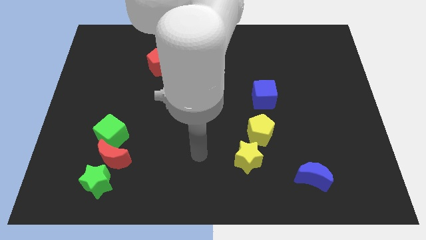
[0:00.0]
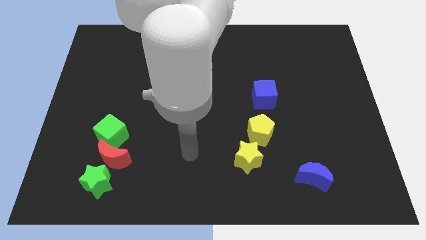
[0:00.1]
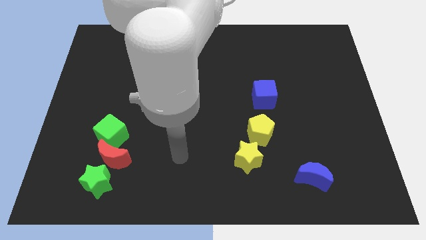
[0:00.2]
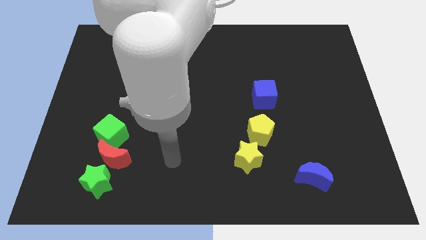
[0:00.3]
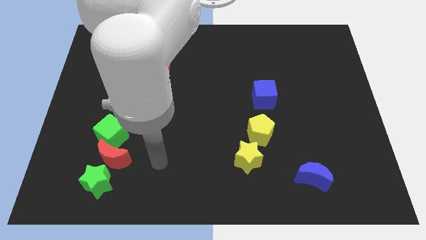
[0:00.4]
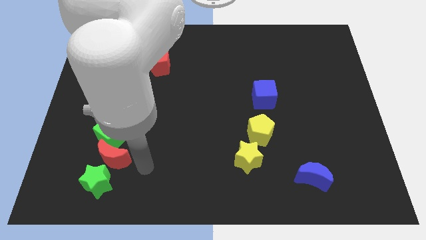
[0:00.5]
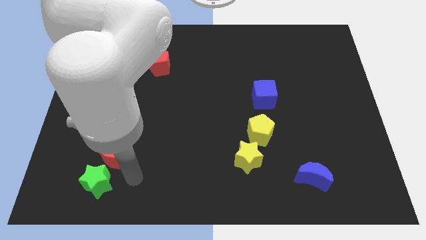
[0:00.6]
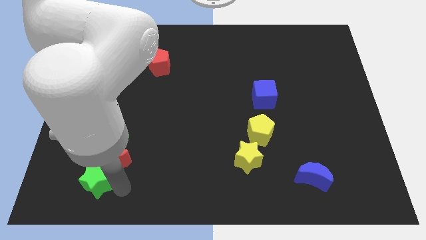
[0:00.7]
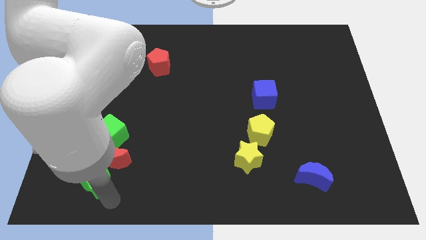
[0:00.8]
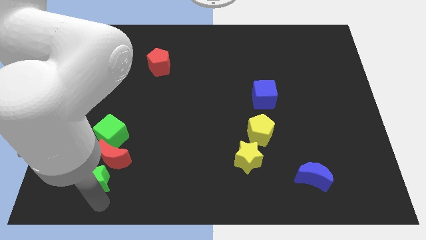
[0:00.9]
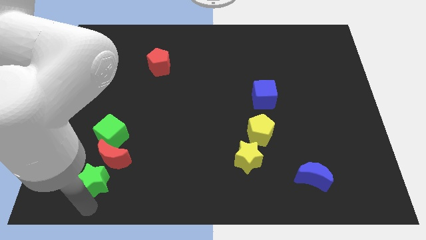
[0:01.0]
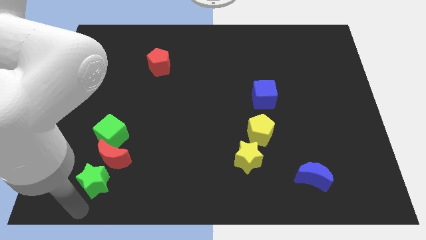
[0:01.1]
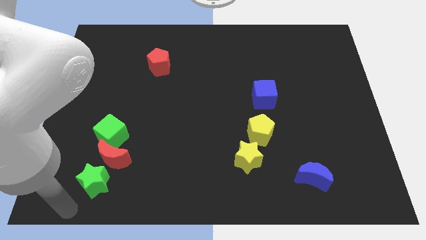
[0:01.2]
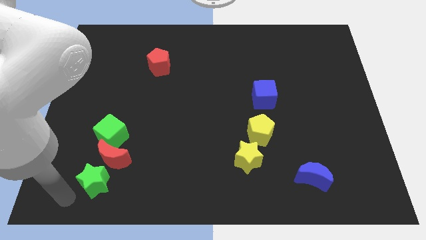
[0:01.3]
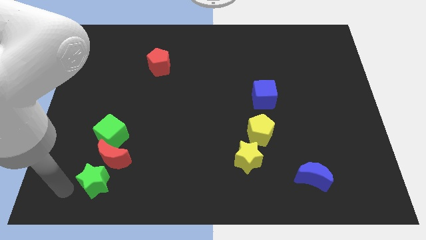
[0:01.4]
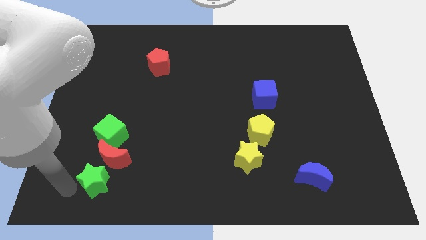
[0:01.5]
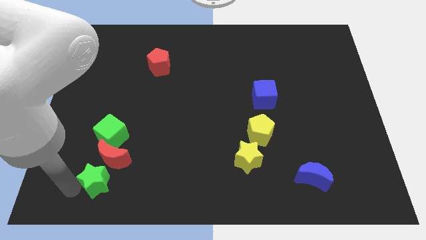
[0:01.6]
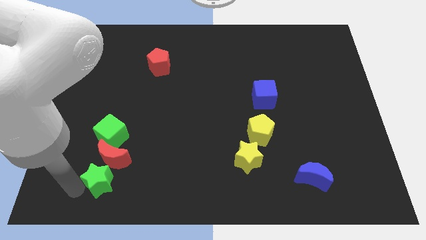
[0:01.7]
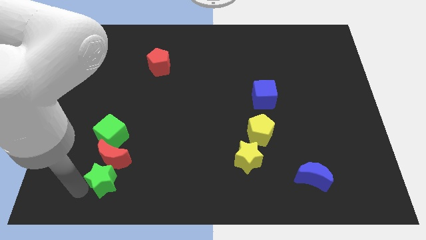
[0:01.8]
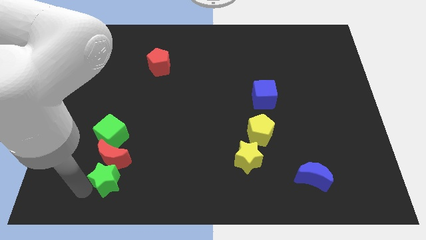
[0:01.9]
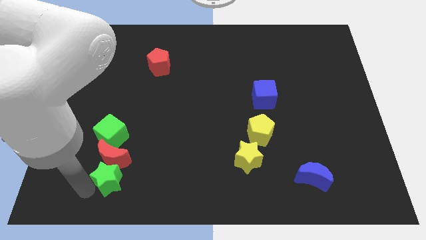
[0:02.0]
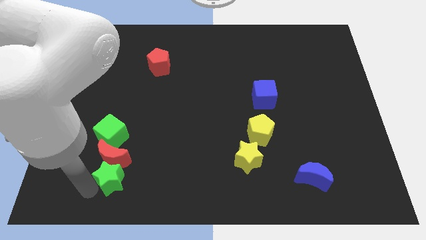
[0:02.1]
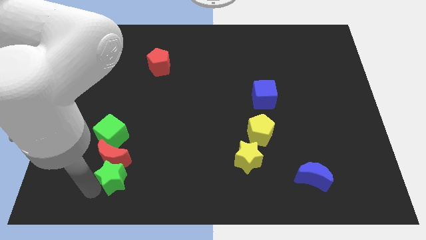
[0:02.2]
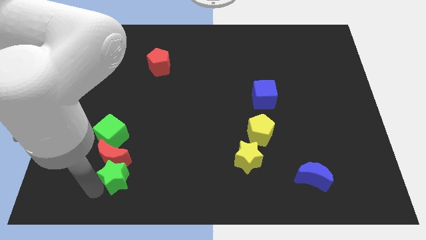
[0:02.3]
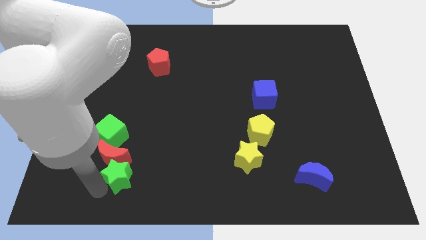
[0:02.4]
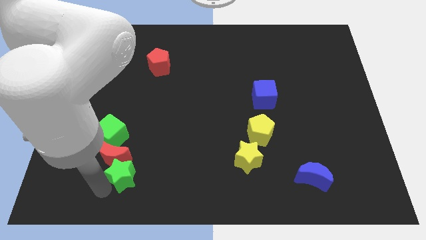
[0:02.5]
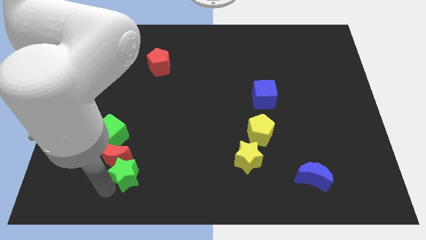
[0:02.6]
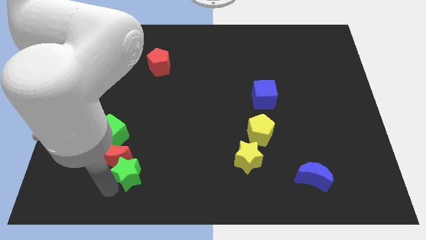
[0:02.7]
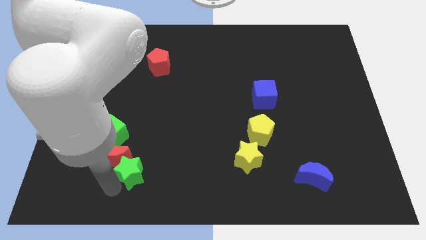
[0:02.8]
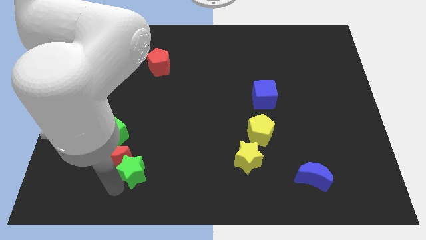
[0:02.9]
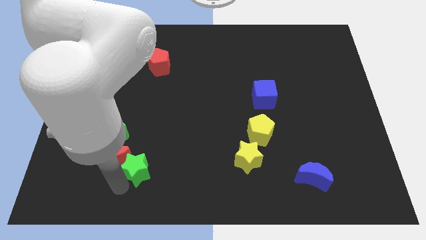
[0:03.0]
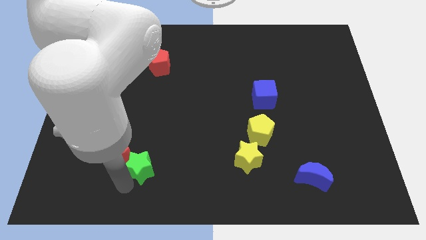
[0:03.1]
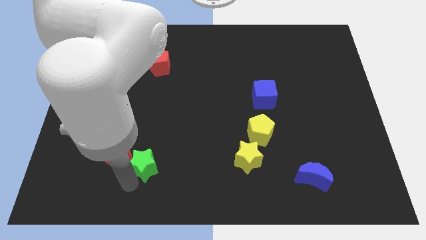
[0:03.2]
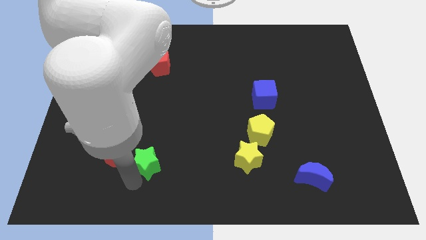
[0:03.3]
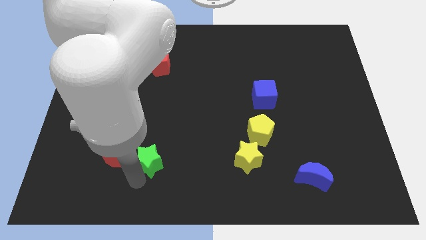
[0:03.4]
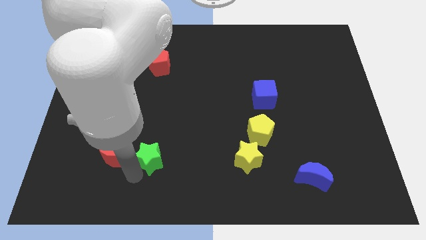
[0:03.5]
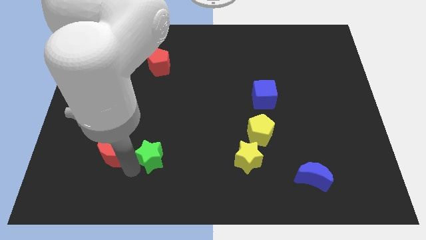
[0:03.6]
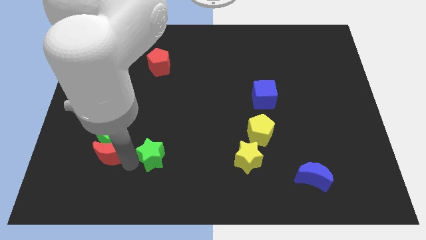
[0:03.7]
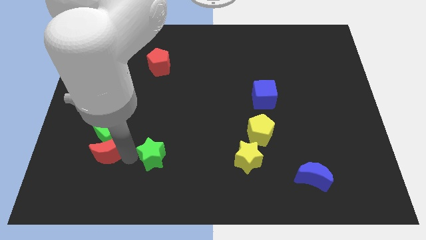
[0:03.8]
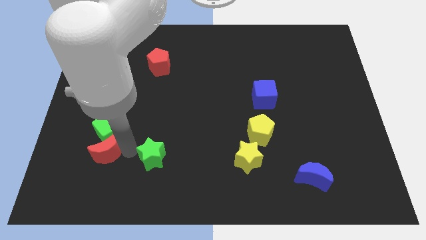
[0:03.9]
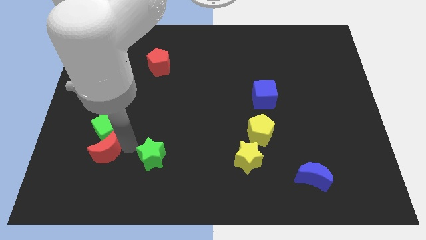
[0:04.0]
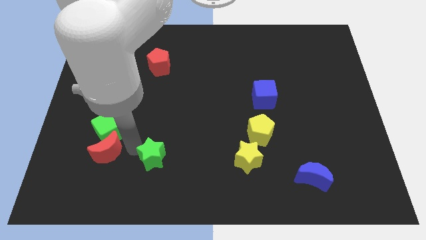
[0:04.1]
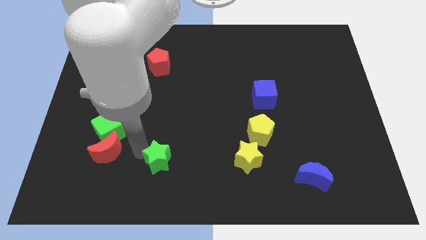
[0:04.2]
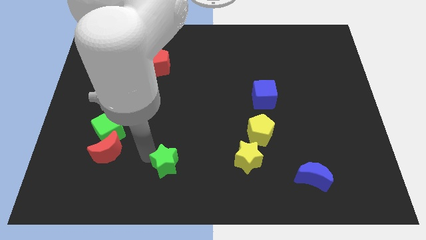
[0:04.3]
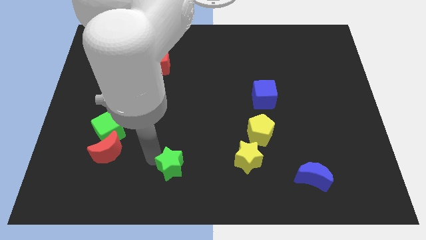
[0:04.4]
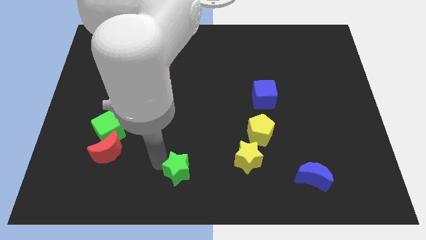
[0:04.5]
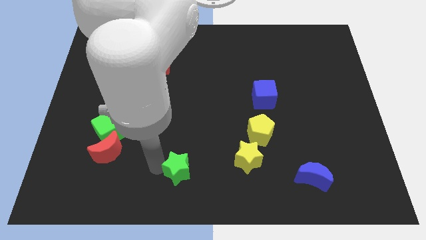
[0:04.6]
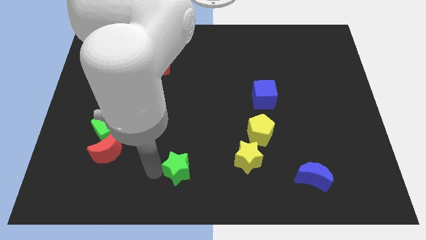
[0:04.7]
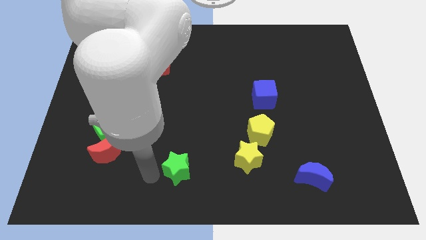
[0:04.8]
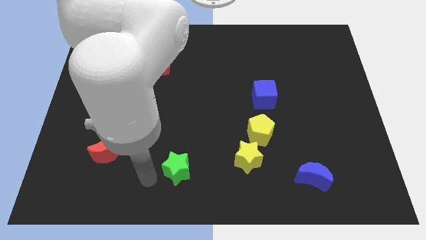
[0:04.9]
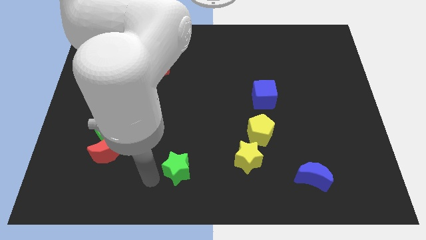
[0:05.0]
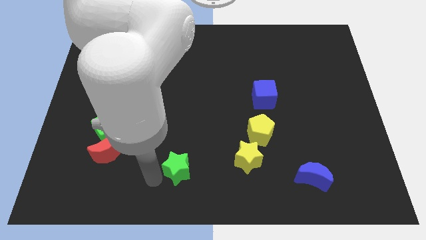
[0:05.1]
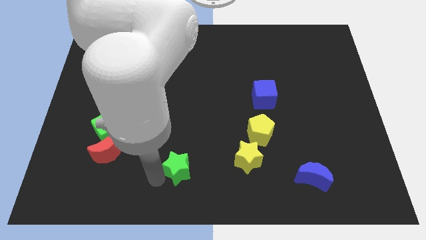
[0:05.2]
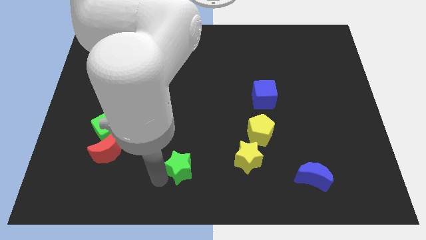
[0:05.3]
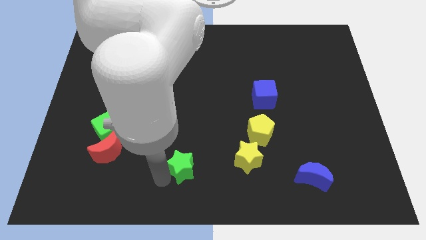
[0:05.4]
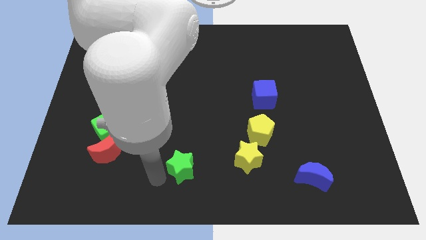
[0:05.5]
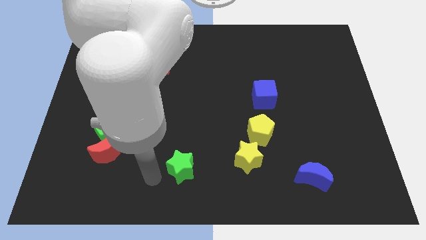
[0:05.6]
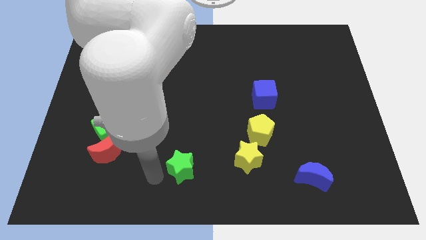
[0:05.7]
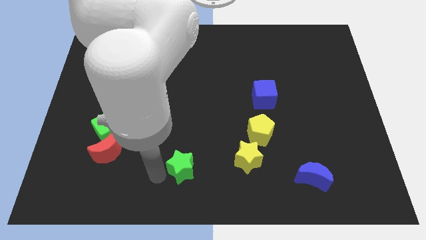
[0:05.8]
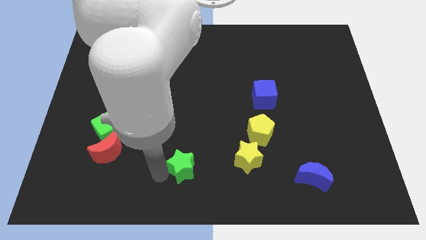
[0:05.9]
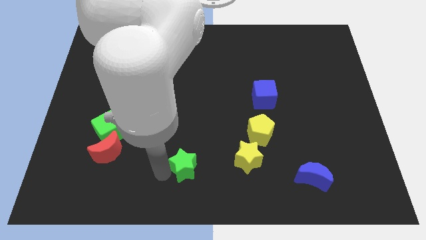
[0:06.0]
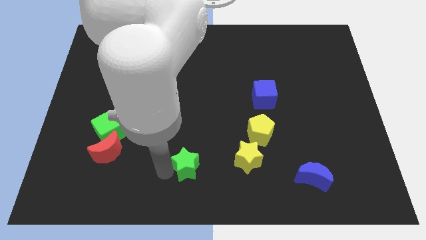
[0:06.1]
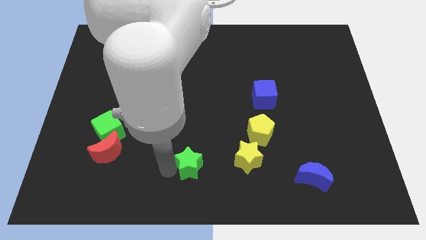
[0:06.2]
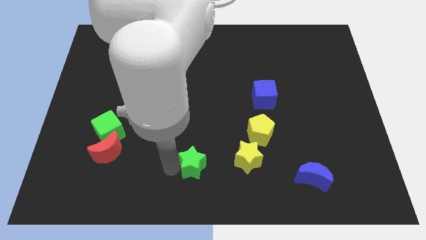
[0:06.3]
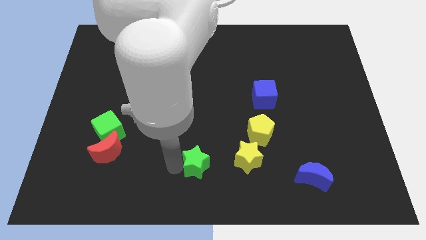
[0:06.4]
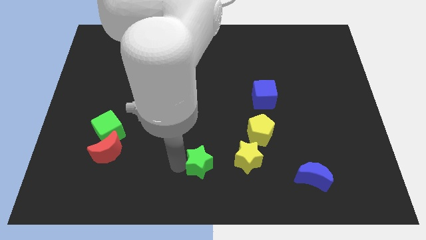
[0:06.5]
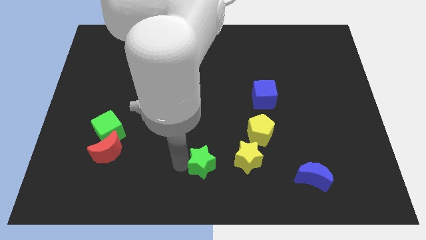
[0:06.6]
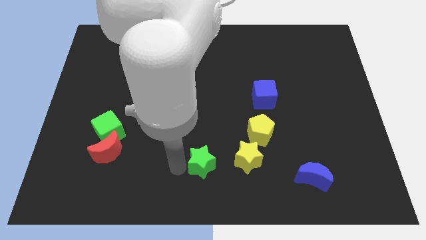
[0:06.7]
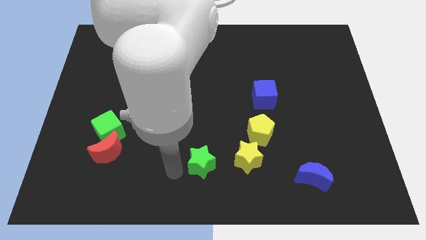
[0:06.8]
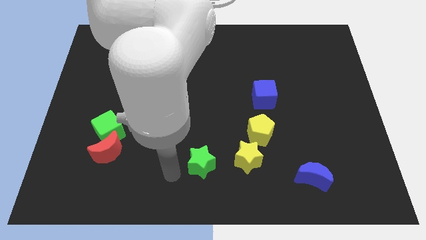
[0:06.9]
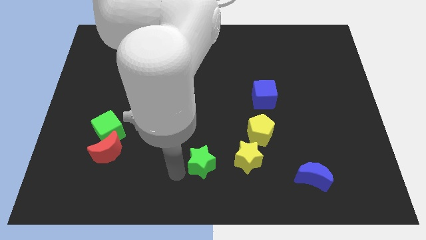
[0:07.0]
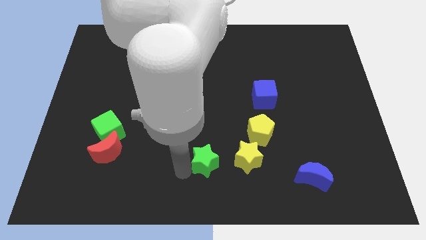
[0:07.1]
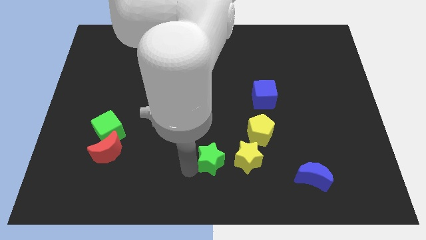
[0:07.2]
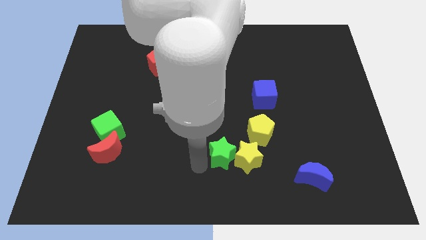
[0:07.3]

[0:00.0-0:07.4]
put the green star next to the yellow star
